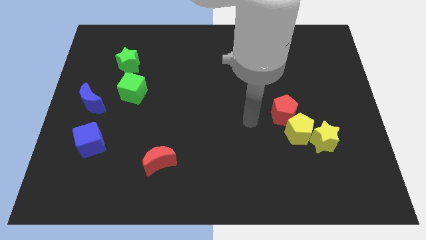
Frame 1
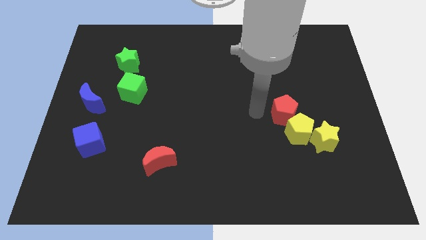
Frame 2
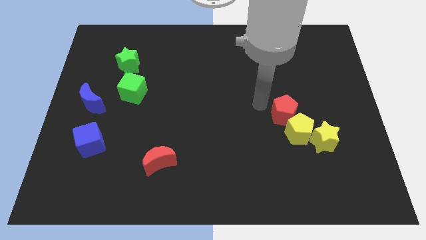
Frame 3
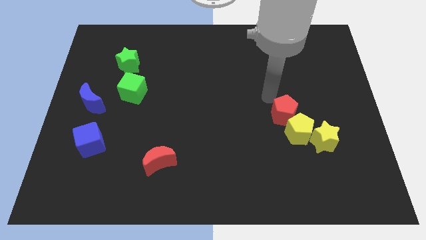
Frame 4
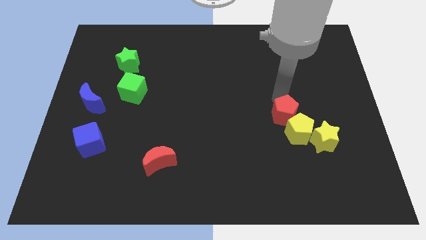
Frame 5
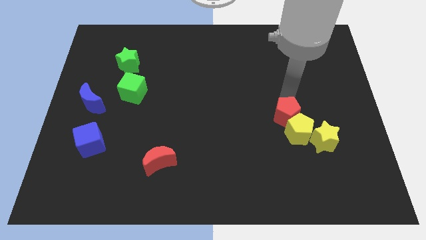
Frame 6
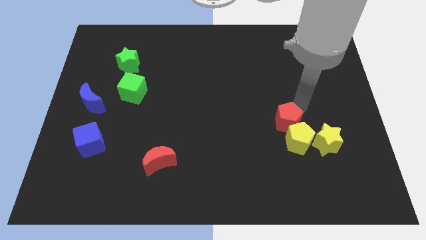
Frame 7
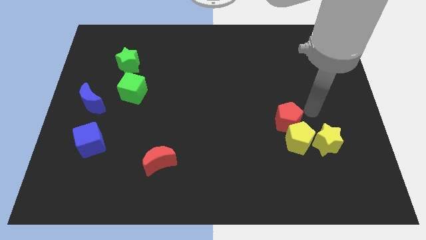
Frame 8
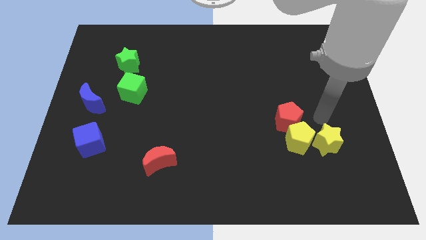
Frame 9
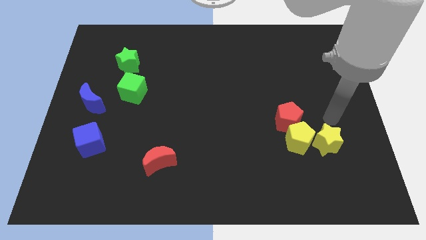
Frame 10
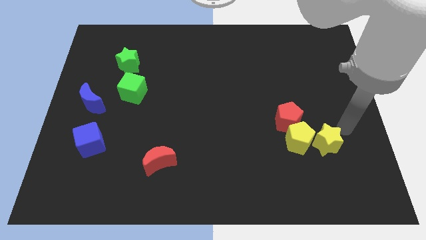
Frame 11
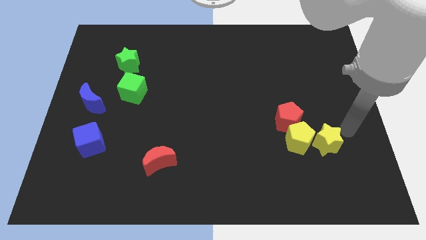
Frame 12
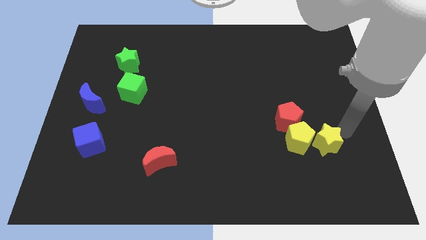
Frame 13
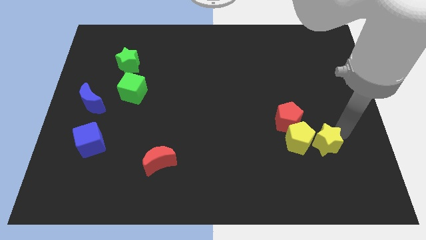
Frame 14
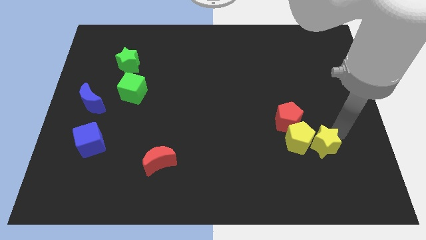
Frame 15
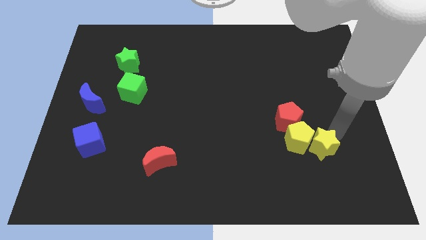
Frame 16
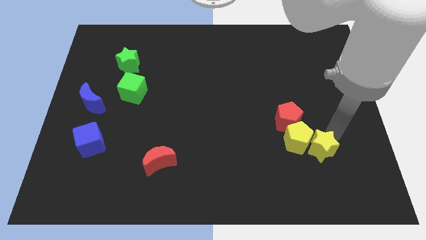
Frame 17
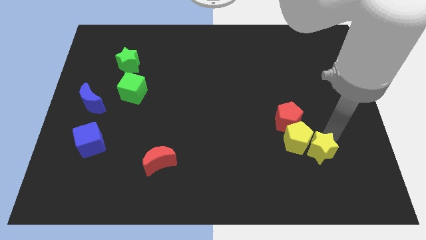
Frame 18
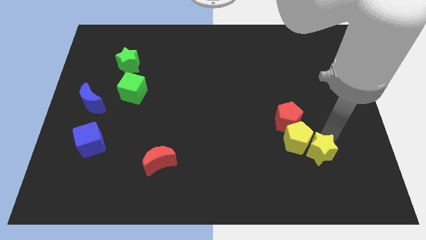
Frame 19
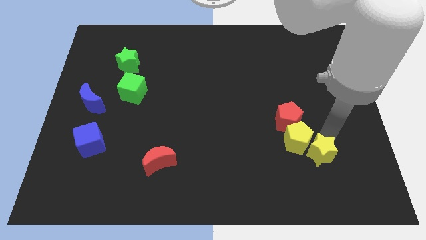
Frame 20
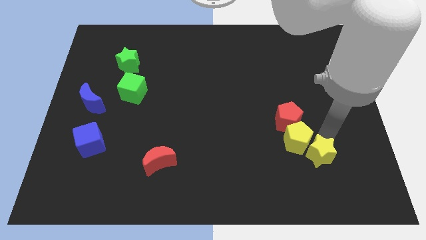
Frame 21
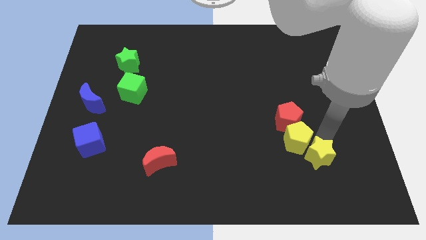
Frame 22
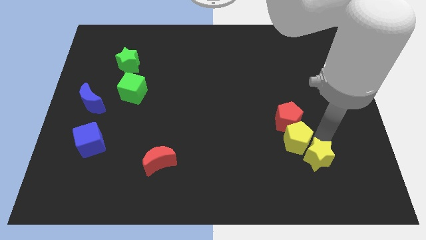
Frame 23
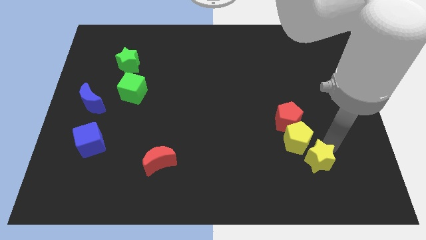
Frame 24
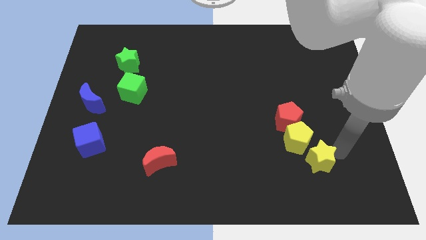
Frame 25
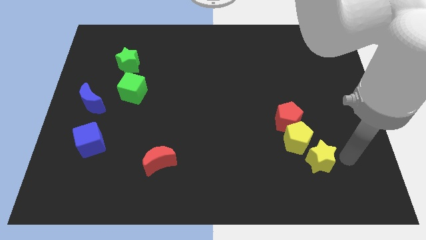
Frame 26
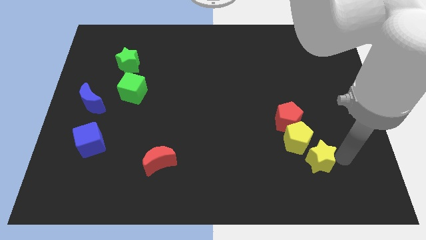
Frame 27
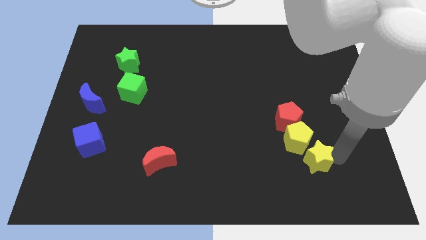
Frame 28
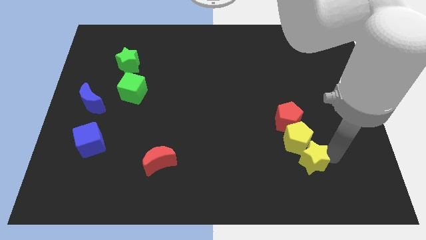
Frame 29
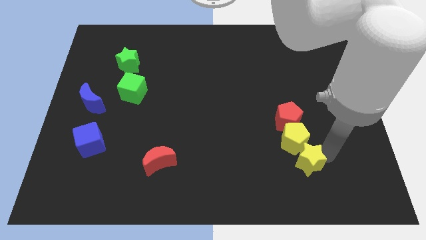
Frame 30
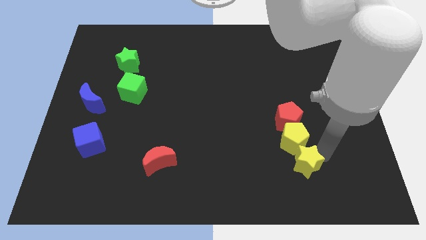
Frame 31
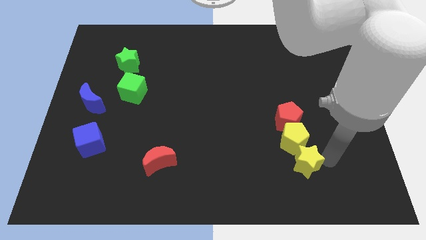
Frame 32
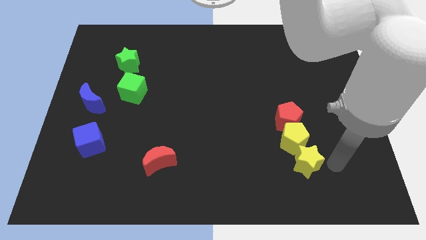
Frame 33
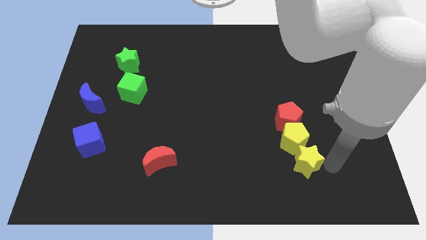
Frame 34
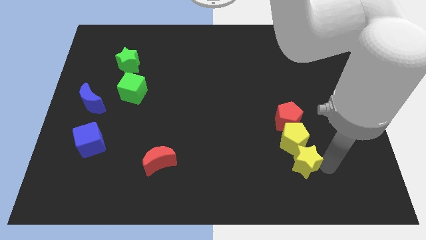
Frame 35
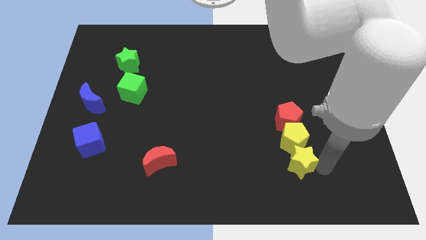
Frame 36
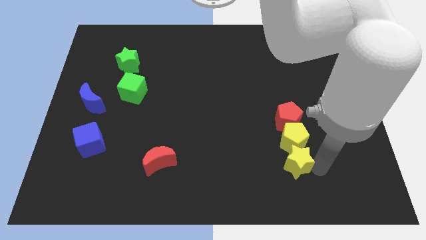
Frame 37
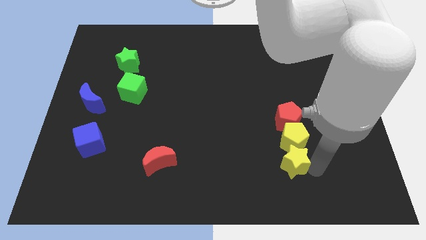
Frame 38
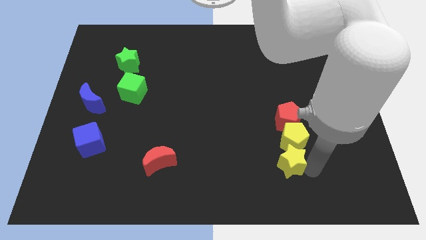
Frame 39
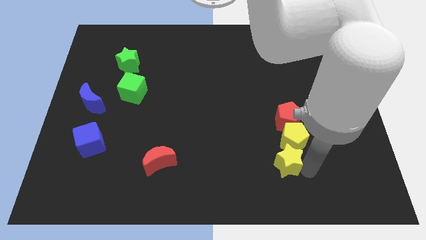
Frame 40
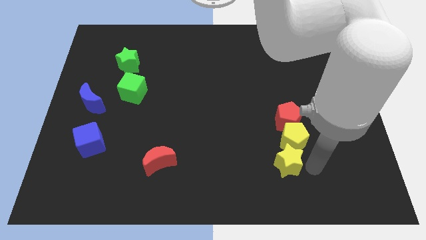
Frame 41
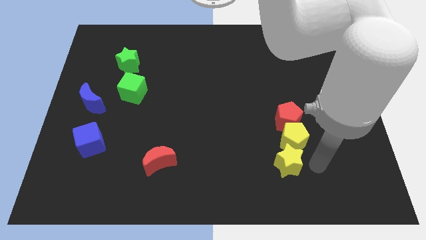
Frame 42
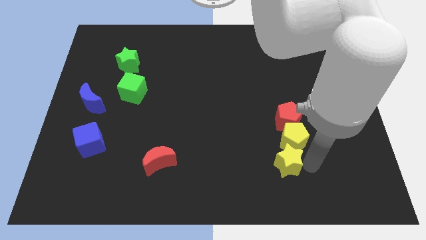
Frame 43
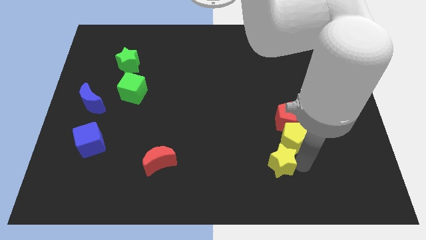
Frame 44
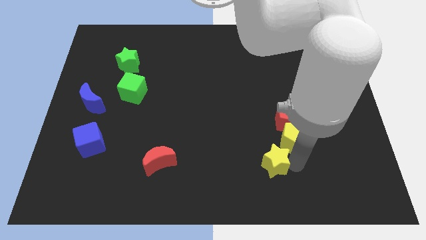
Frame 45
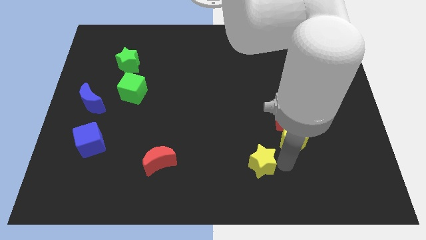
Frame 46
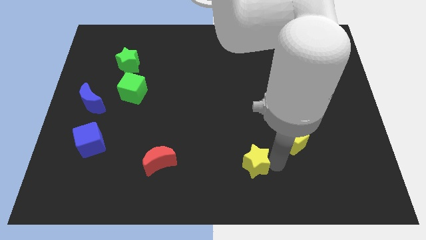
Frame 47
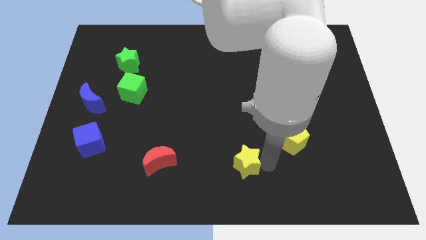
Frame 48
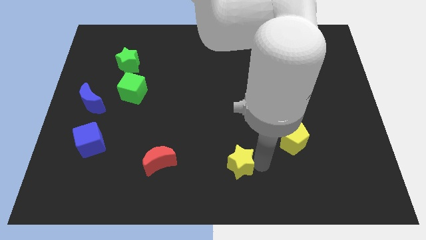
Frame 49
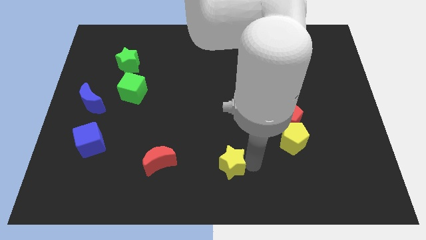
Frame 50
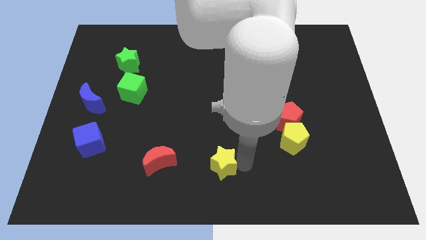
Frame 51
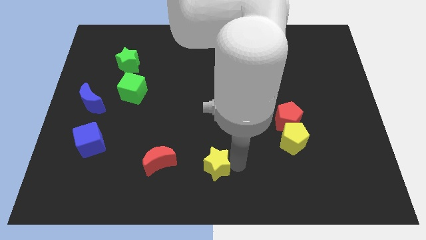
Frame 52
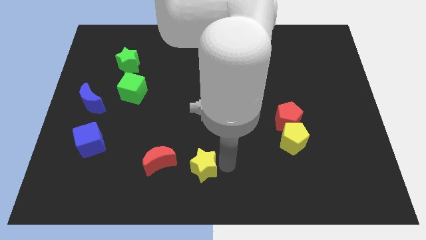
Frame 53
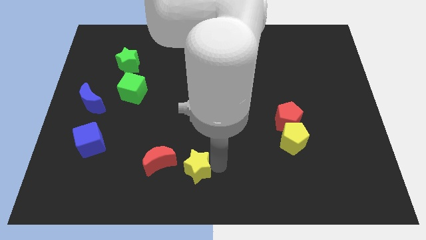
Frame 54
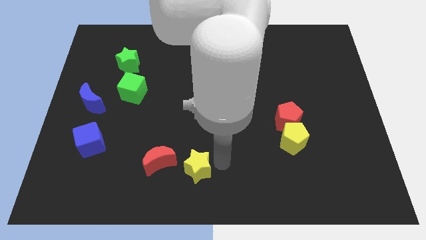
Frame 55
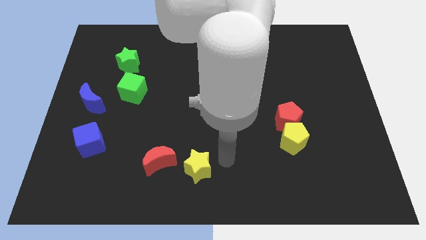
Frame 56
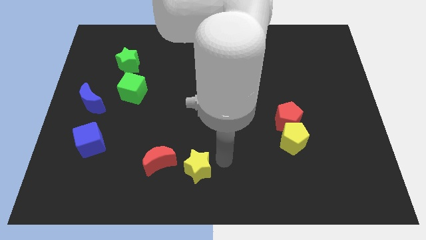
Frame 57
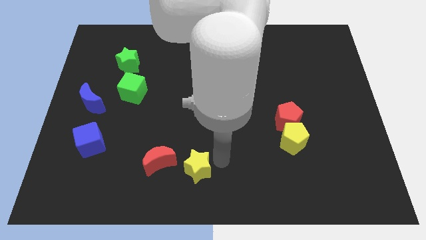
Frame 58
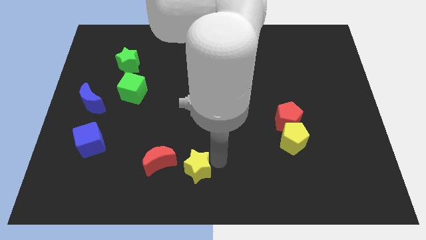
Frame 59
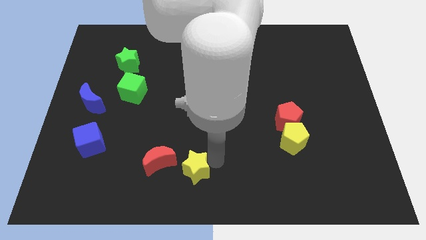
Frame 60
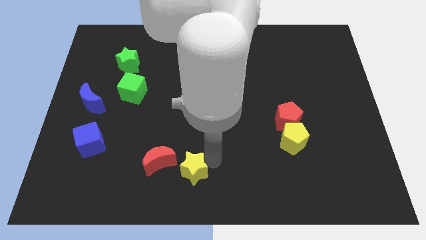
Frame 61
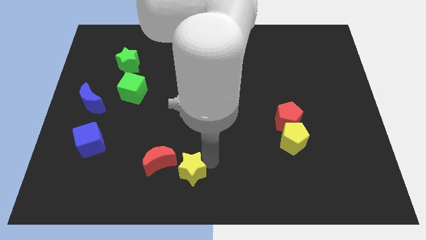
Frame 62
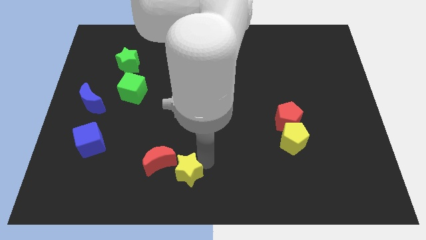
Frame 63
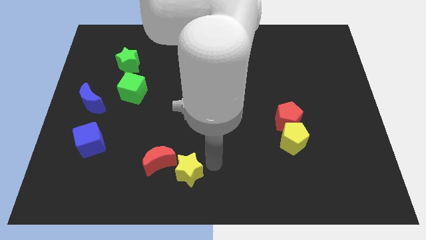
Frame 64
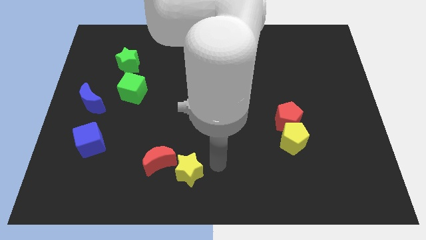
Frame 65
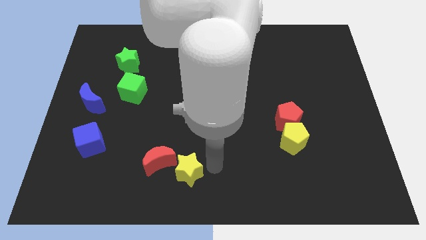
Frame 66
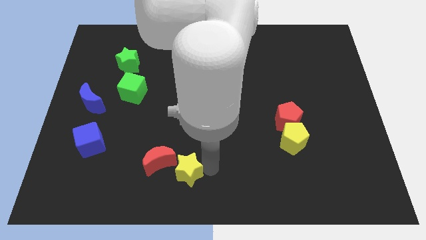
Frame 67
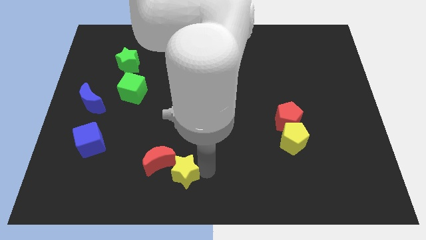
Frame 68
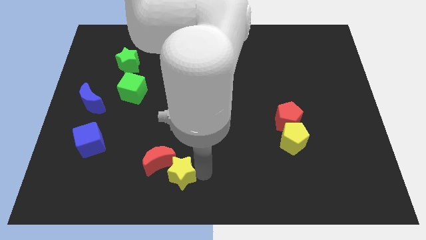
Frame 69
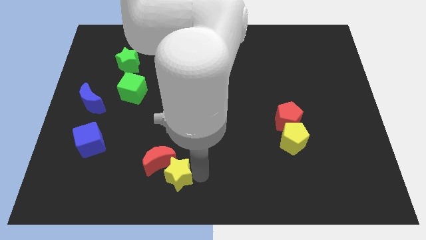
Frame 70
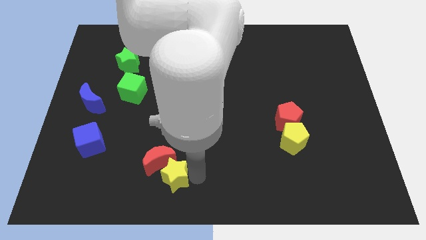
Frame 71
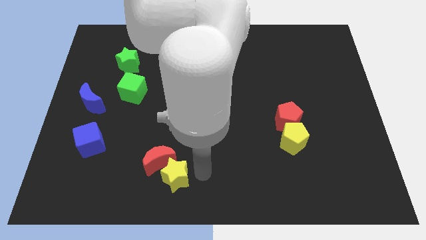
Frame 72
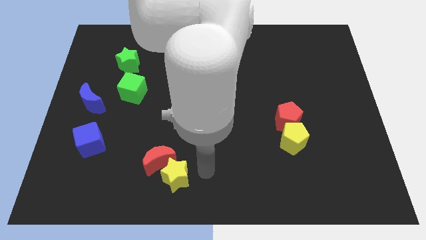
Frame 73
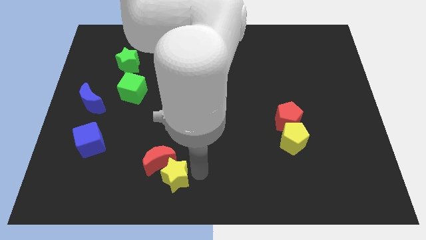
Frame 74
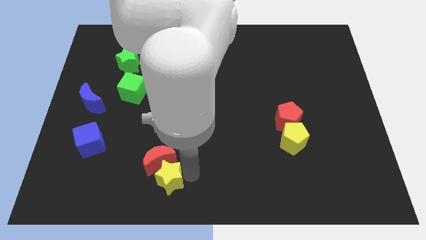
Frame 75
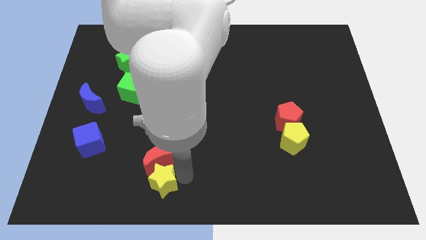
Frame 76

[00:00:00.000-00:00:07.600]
push the yellow star to the bottom left side of the red moon
